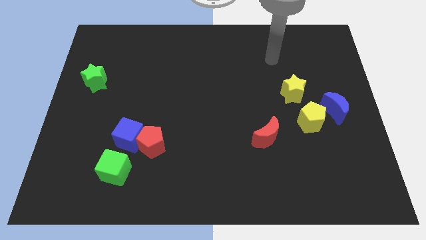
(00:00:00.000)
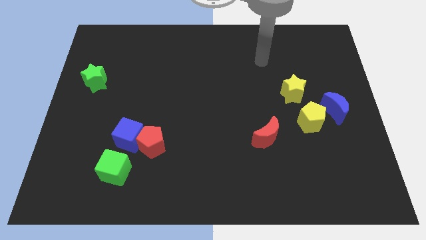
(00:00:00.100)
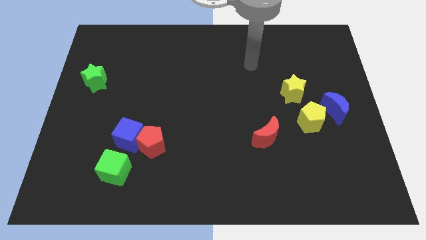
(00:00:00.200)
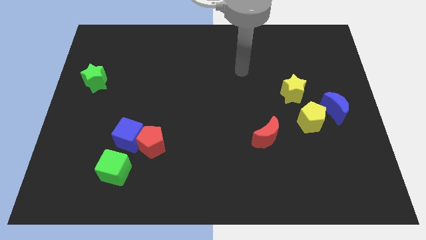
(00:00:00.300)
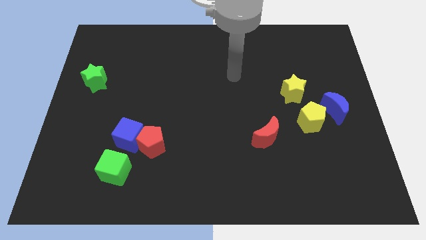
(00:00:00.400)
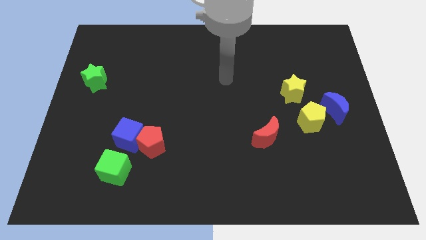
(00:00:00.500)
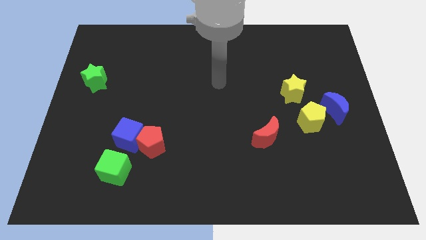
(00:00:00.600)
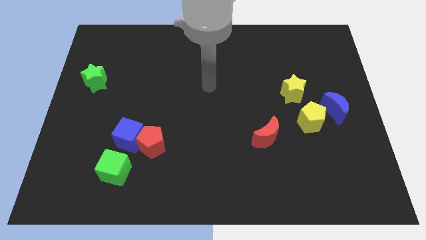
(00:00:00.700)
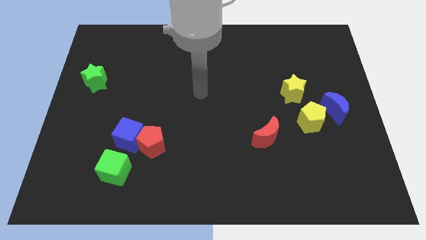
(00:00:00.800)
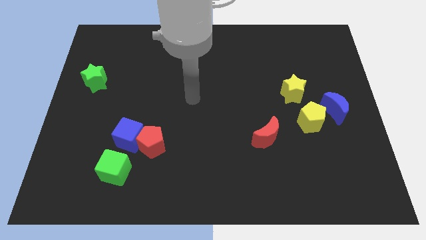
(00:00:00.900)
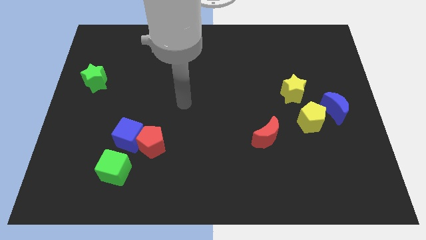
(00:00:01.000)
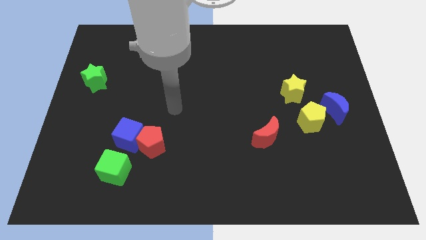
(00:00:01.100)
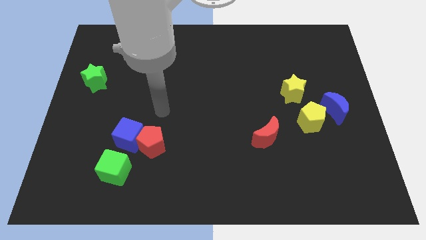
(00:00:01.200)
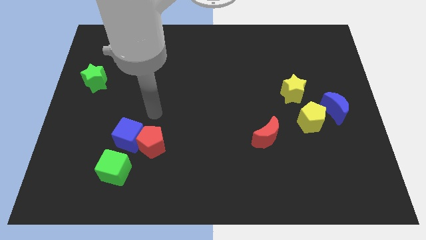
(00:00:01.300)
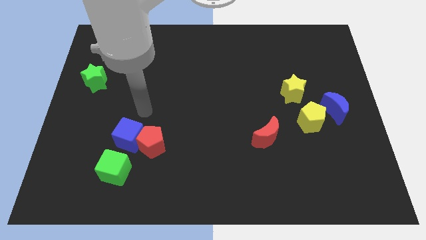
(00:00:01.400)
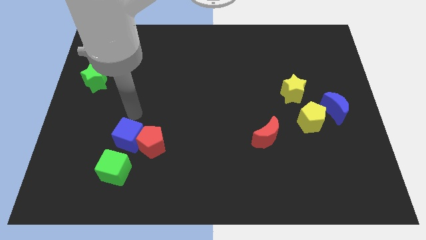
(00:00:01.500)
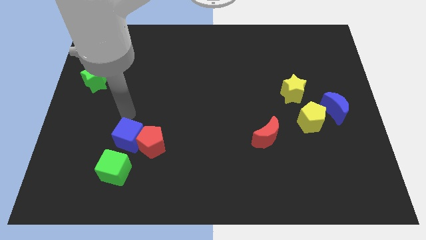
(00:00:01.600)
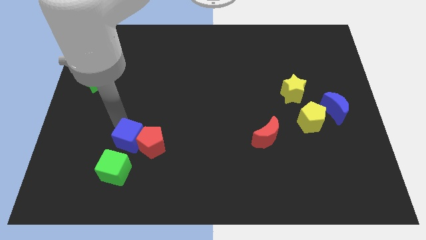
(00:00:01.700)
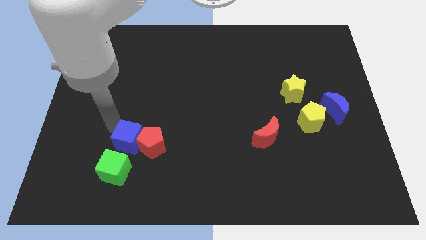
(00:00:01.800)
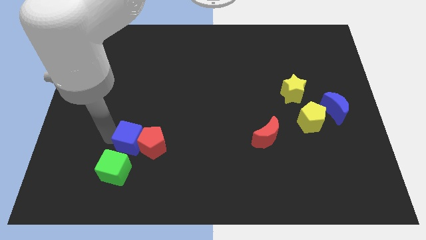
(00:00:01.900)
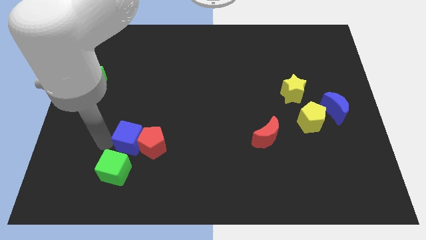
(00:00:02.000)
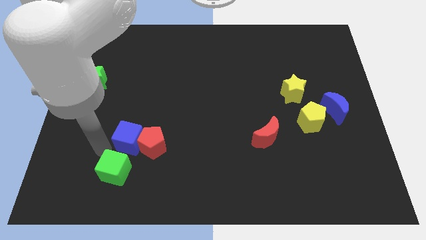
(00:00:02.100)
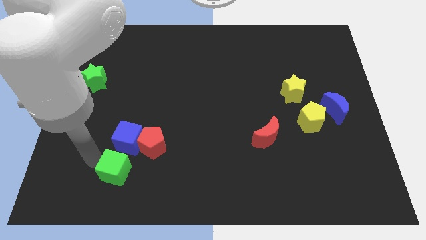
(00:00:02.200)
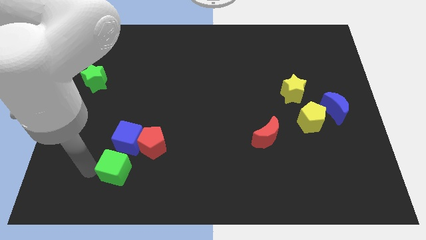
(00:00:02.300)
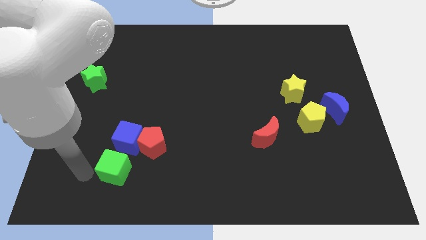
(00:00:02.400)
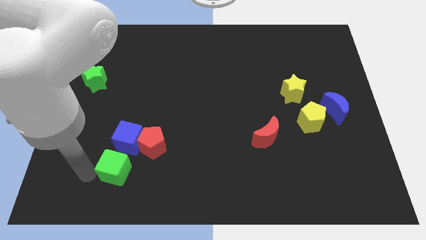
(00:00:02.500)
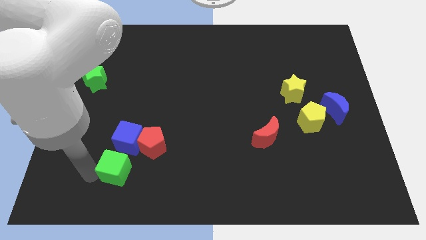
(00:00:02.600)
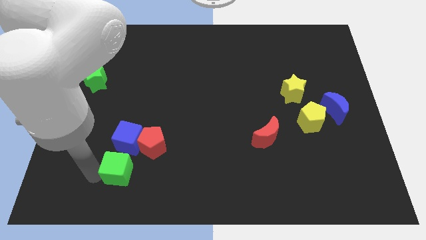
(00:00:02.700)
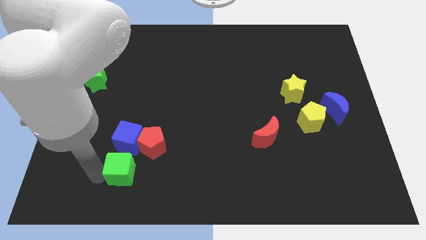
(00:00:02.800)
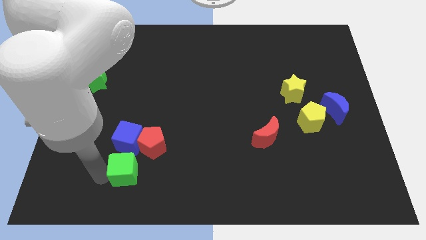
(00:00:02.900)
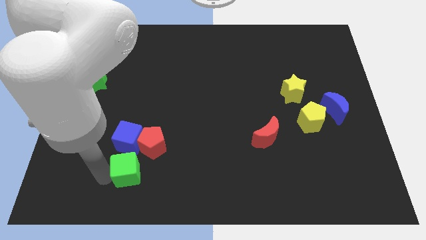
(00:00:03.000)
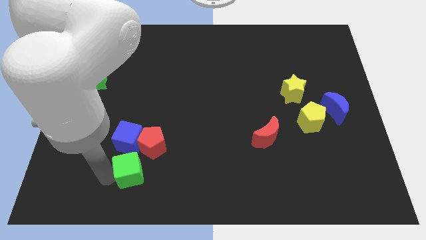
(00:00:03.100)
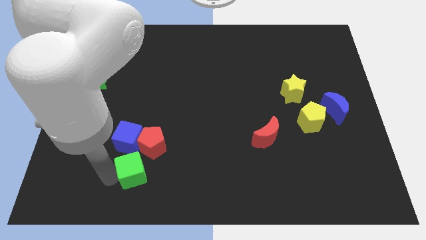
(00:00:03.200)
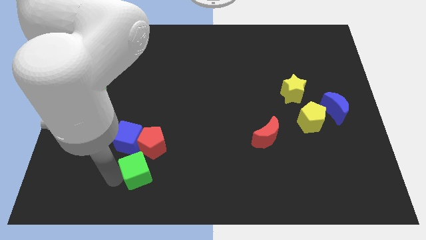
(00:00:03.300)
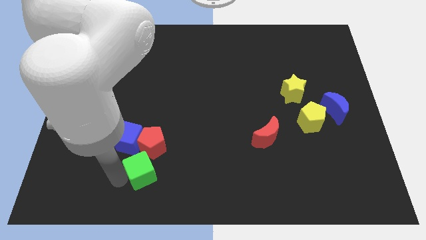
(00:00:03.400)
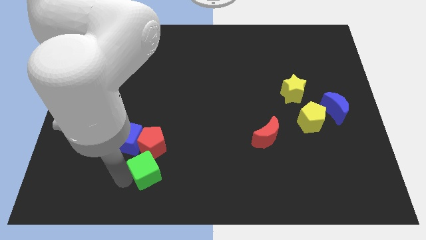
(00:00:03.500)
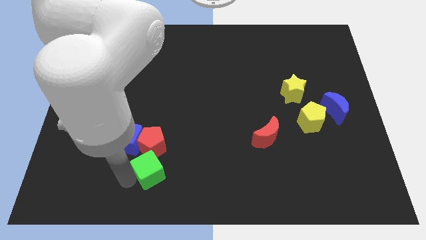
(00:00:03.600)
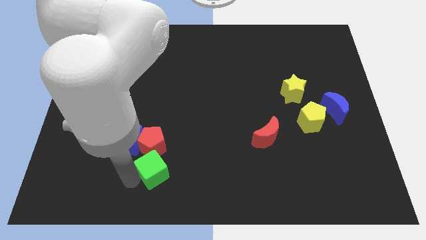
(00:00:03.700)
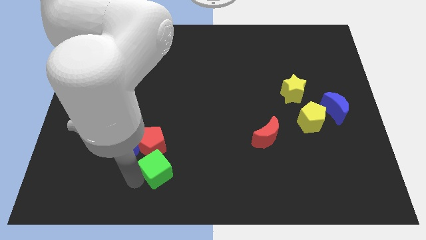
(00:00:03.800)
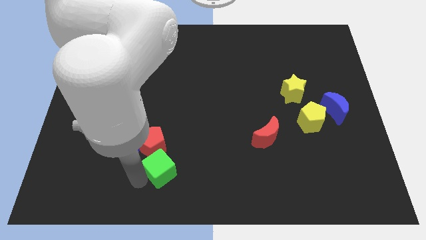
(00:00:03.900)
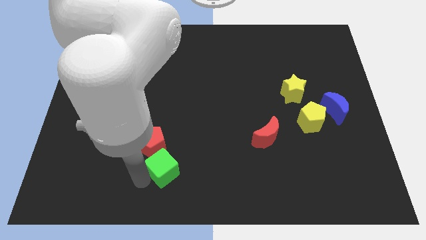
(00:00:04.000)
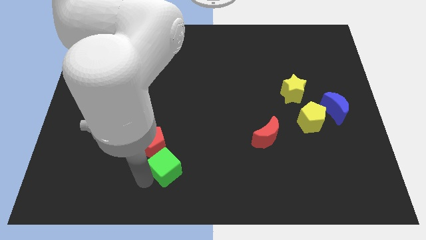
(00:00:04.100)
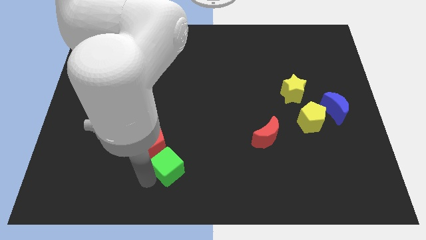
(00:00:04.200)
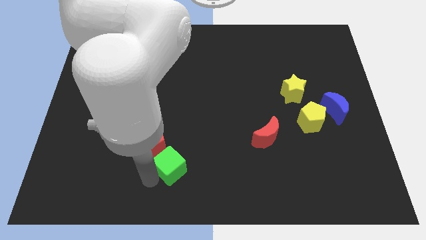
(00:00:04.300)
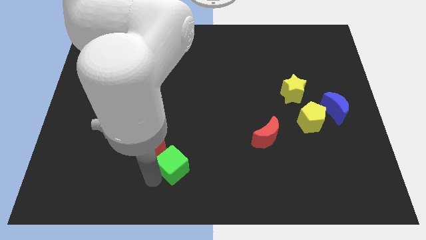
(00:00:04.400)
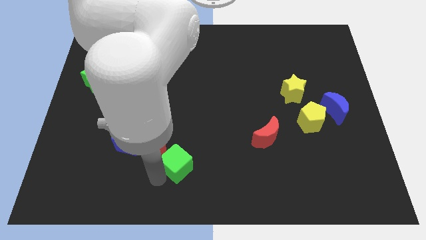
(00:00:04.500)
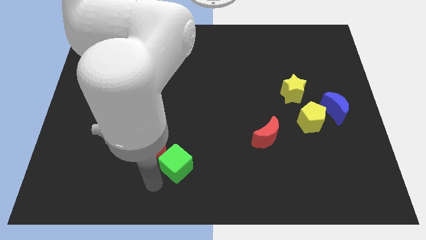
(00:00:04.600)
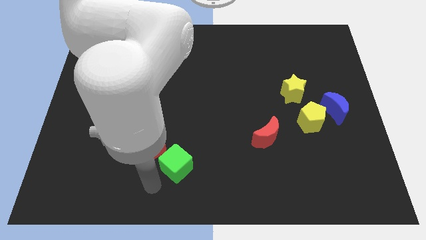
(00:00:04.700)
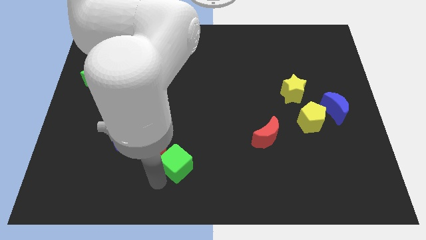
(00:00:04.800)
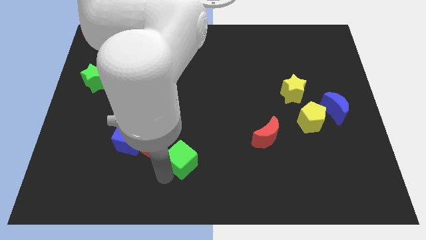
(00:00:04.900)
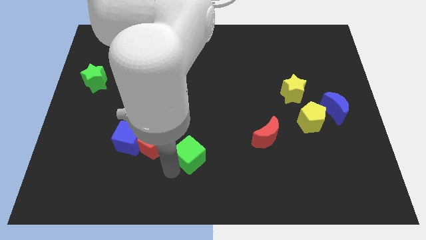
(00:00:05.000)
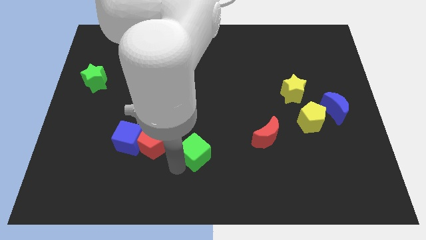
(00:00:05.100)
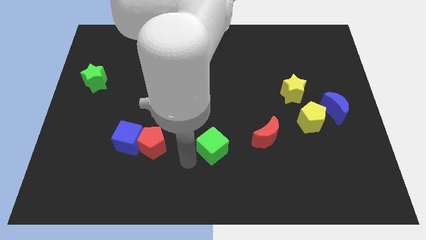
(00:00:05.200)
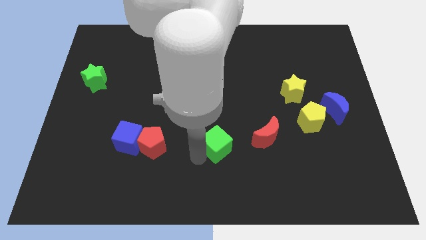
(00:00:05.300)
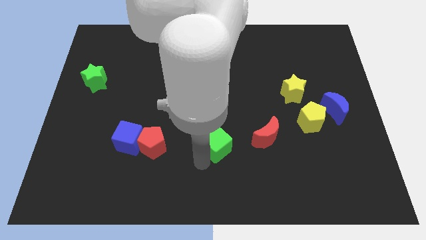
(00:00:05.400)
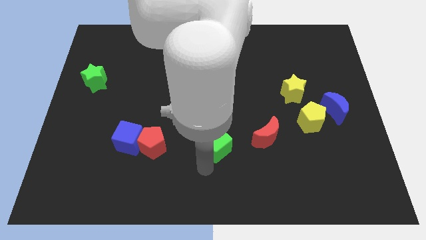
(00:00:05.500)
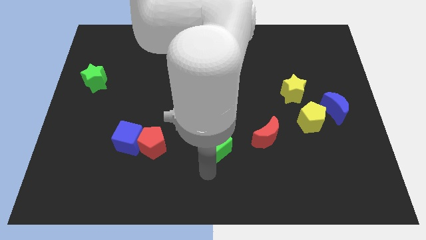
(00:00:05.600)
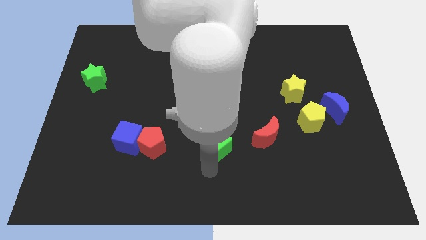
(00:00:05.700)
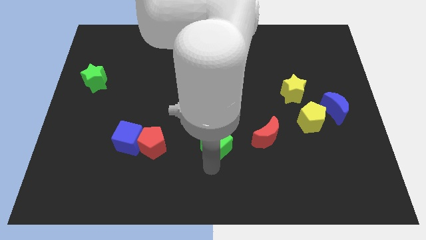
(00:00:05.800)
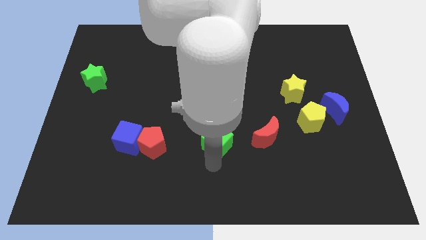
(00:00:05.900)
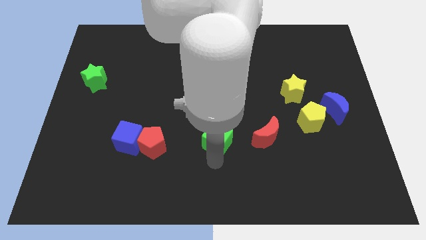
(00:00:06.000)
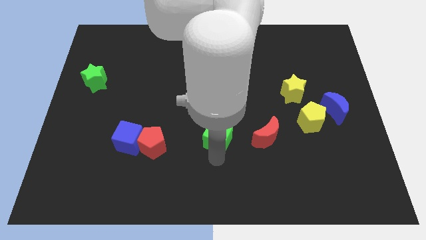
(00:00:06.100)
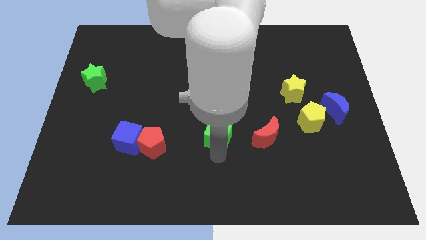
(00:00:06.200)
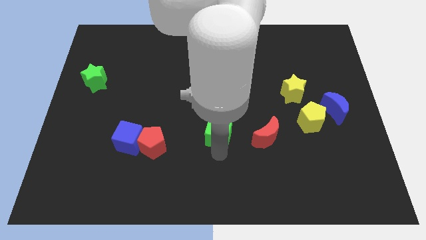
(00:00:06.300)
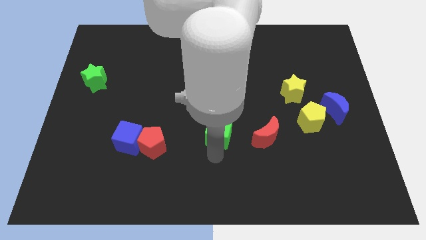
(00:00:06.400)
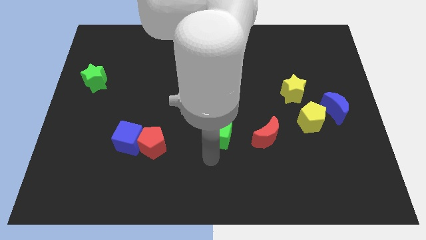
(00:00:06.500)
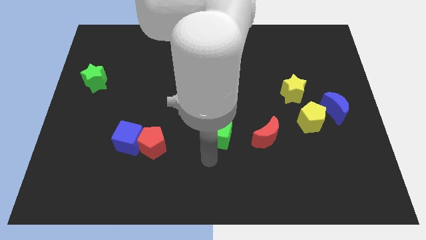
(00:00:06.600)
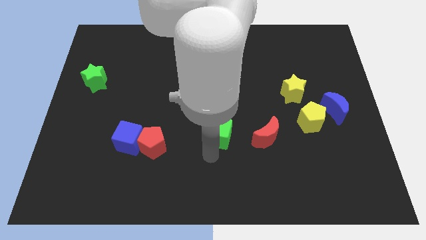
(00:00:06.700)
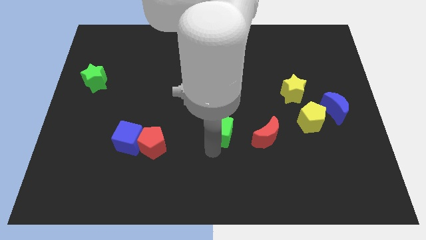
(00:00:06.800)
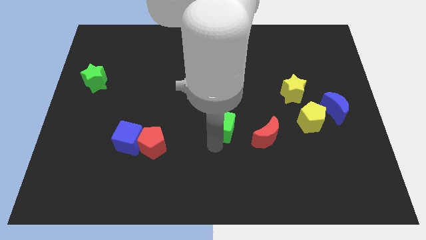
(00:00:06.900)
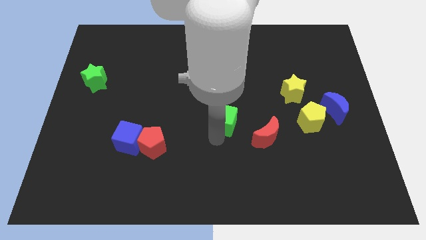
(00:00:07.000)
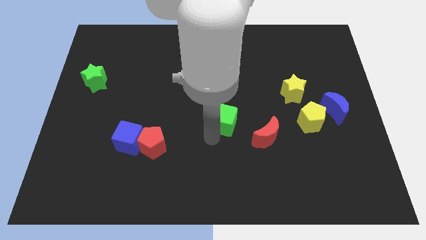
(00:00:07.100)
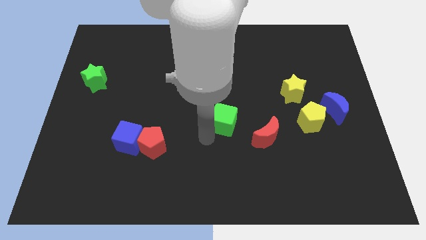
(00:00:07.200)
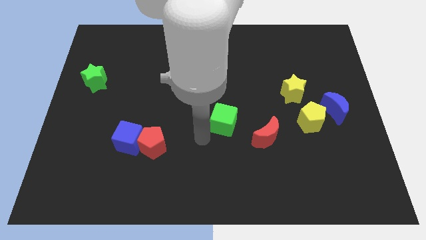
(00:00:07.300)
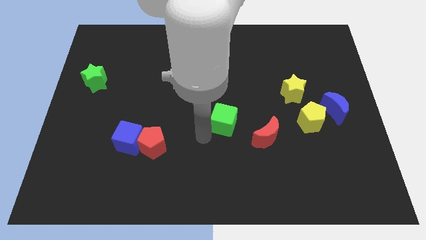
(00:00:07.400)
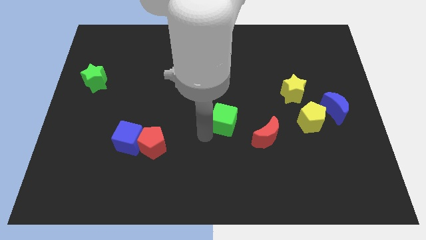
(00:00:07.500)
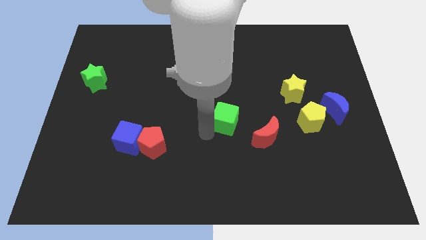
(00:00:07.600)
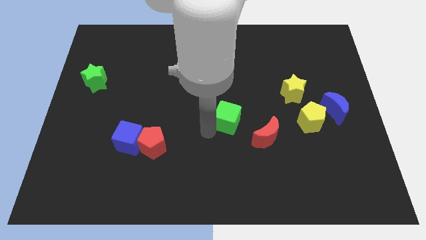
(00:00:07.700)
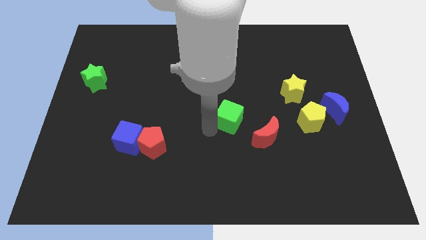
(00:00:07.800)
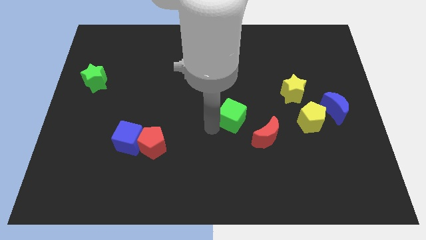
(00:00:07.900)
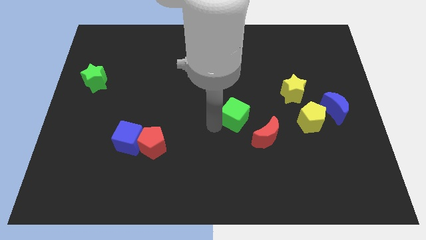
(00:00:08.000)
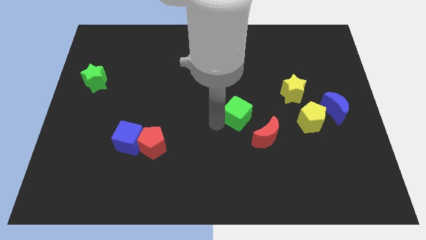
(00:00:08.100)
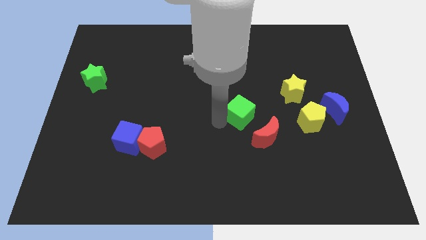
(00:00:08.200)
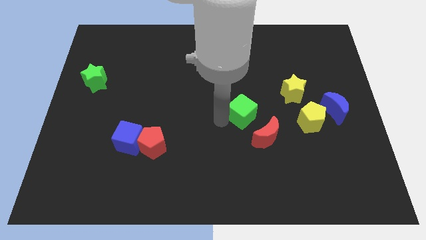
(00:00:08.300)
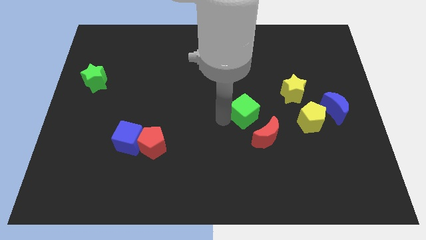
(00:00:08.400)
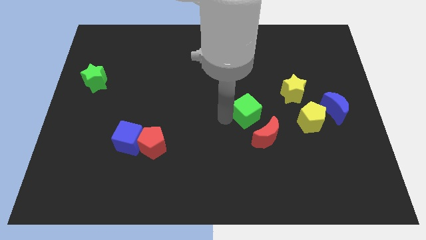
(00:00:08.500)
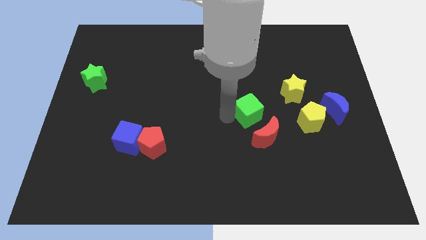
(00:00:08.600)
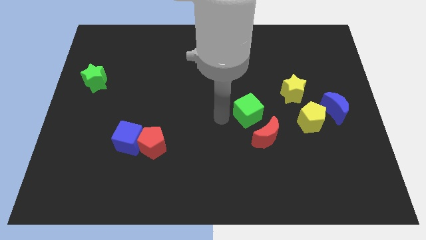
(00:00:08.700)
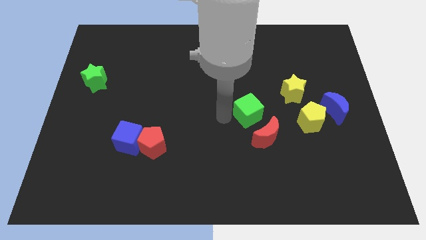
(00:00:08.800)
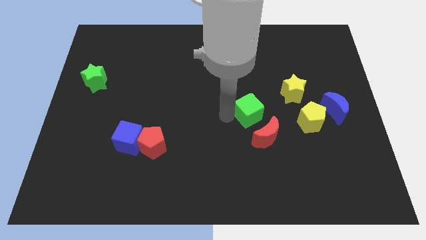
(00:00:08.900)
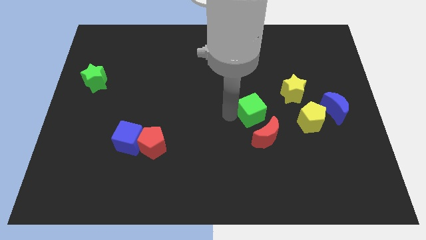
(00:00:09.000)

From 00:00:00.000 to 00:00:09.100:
put the green cube diagonally down and to the left of the yellow star
